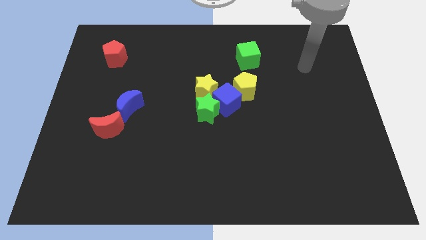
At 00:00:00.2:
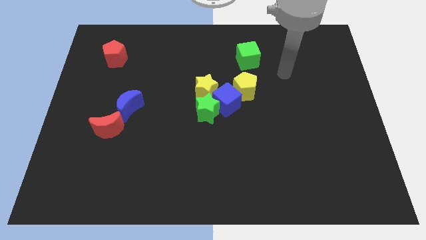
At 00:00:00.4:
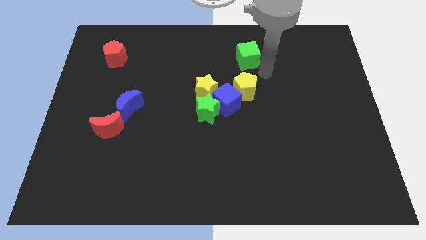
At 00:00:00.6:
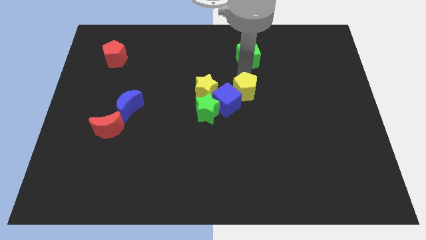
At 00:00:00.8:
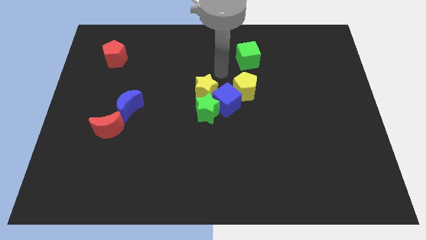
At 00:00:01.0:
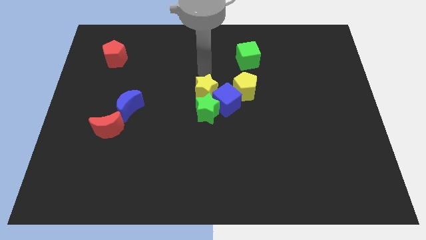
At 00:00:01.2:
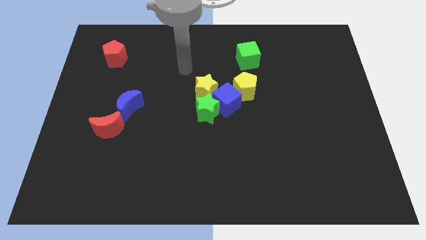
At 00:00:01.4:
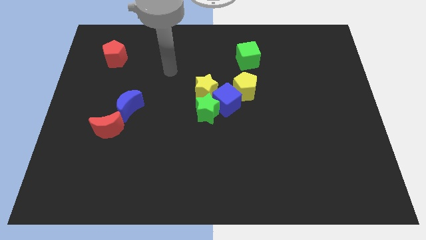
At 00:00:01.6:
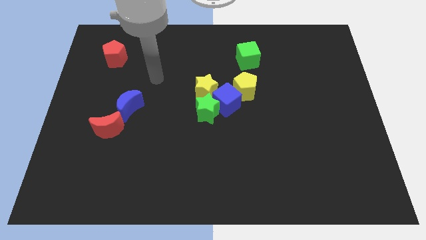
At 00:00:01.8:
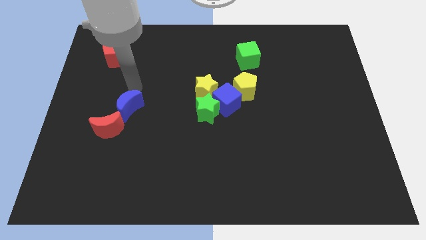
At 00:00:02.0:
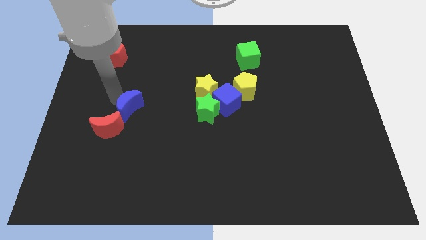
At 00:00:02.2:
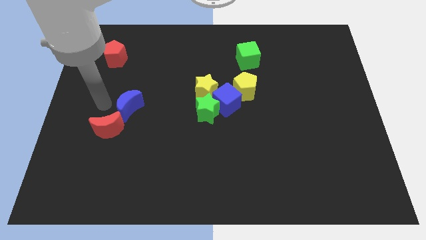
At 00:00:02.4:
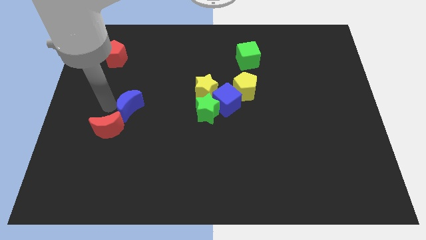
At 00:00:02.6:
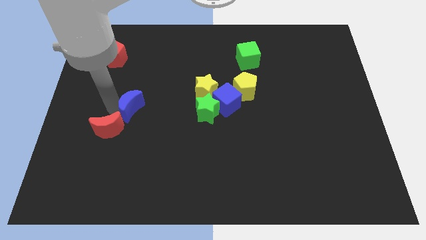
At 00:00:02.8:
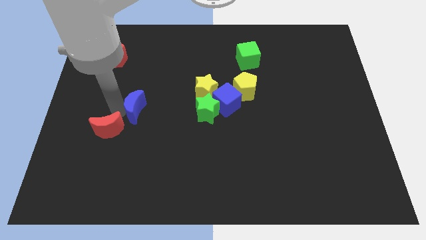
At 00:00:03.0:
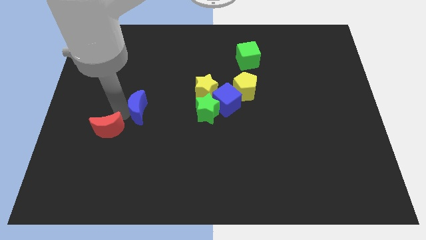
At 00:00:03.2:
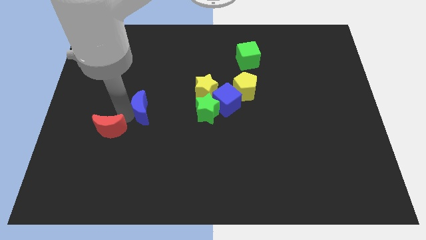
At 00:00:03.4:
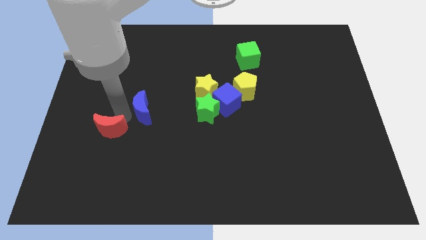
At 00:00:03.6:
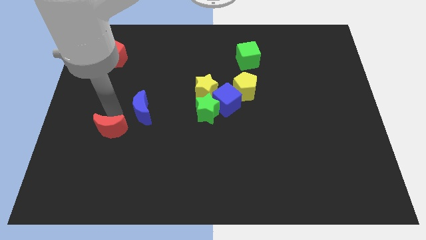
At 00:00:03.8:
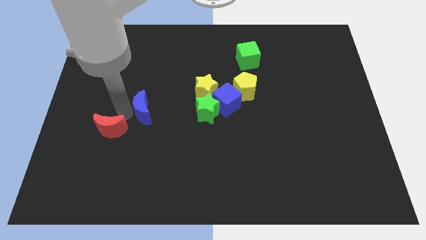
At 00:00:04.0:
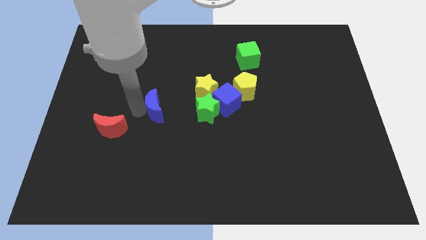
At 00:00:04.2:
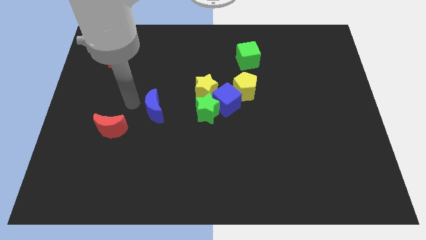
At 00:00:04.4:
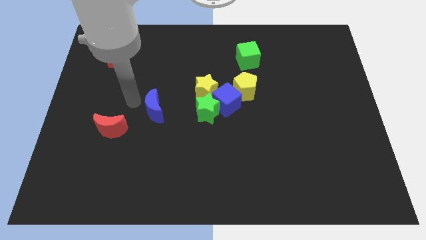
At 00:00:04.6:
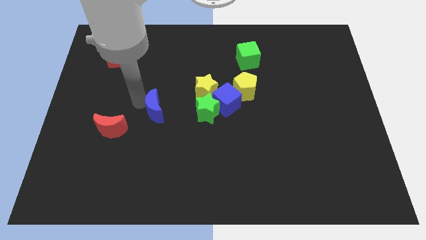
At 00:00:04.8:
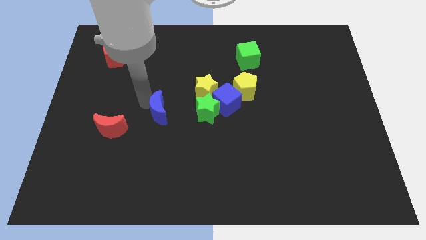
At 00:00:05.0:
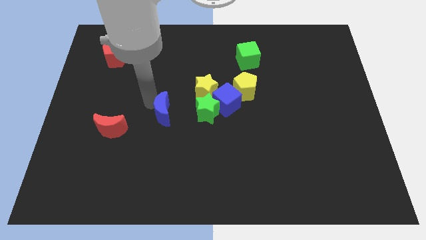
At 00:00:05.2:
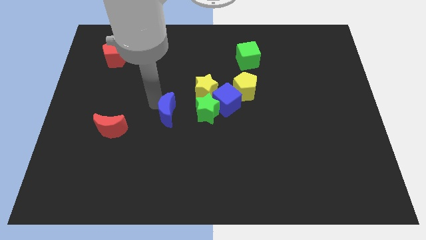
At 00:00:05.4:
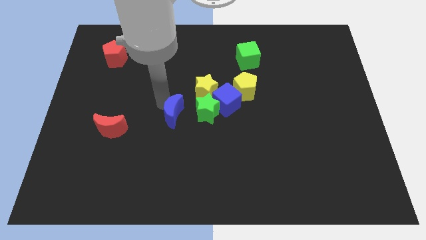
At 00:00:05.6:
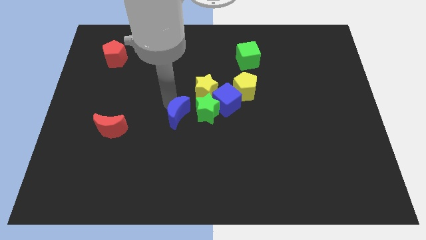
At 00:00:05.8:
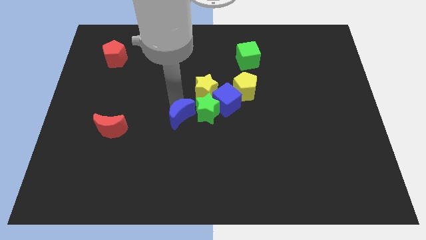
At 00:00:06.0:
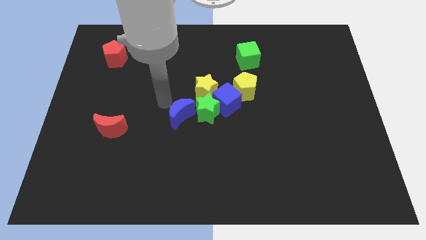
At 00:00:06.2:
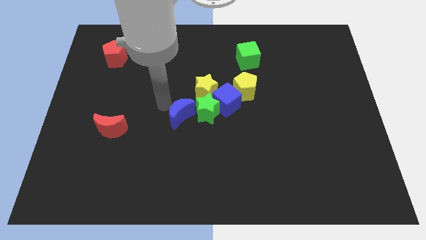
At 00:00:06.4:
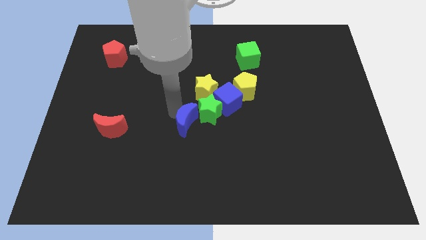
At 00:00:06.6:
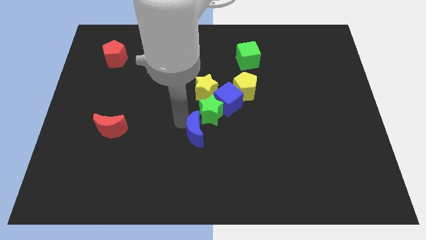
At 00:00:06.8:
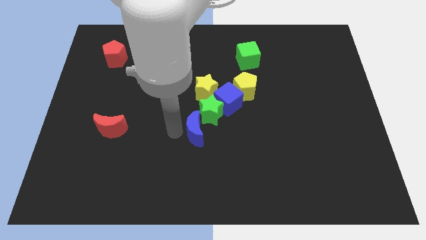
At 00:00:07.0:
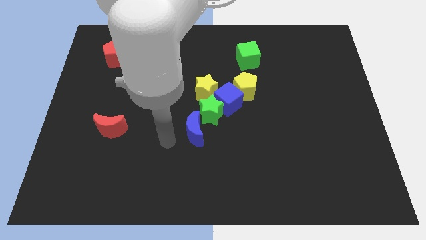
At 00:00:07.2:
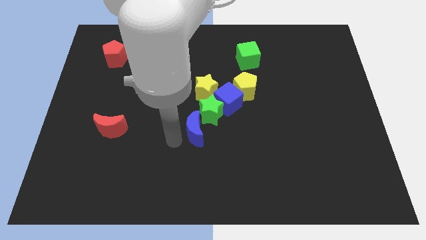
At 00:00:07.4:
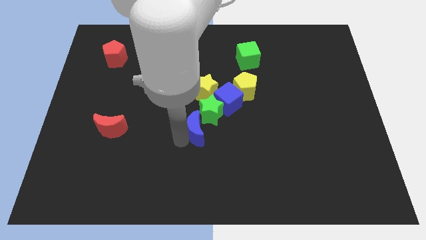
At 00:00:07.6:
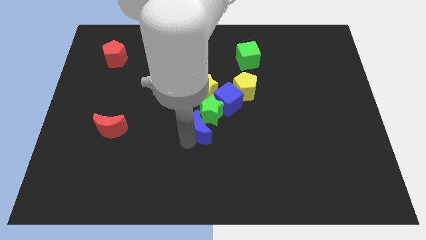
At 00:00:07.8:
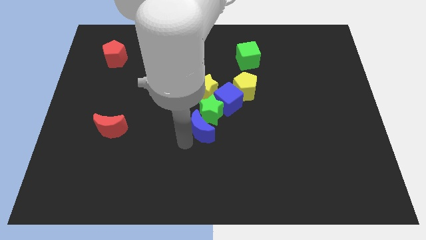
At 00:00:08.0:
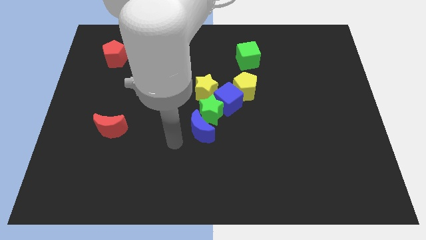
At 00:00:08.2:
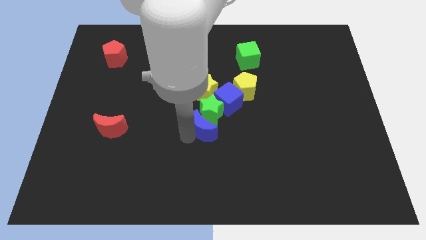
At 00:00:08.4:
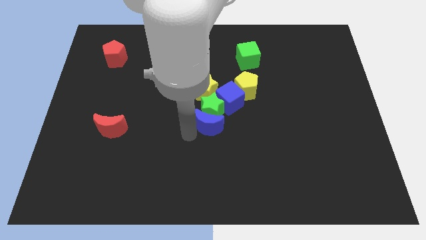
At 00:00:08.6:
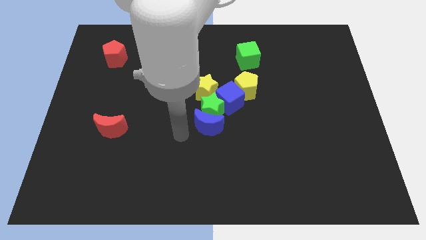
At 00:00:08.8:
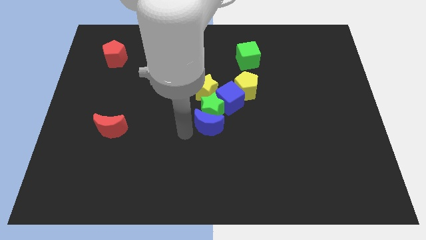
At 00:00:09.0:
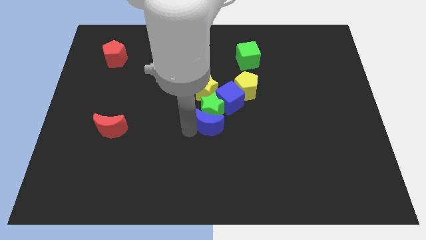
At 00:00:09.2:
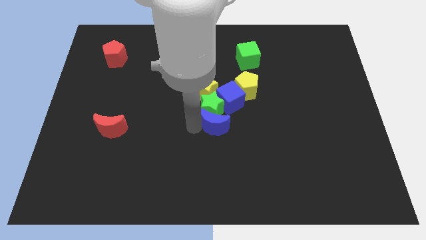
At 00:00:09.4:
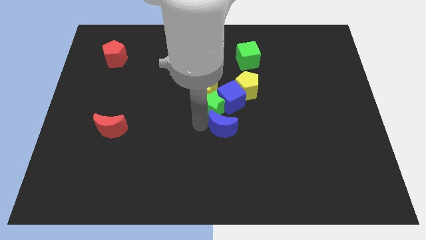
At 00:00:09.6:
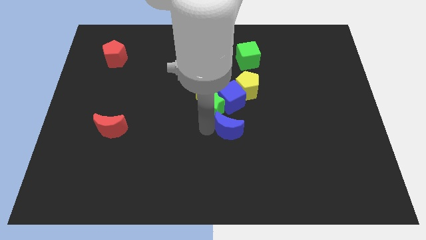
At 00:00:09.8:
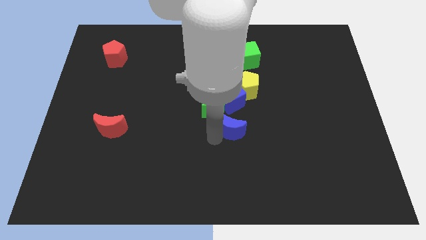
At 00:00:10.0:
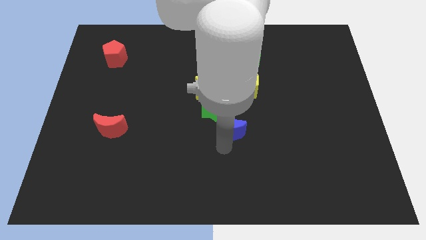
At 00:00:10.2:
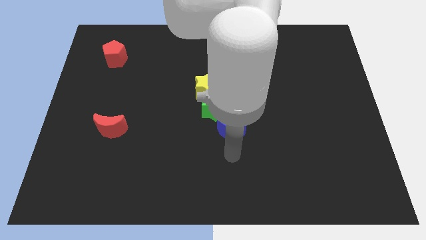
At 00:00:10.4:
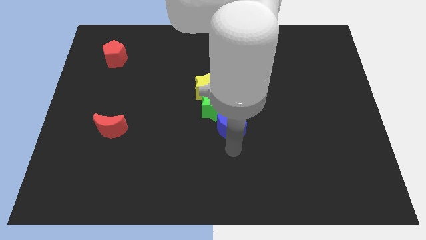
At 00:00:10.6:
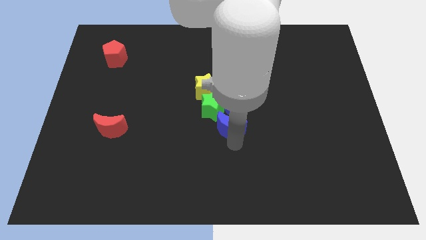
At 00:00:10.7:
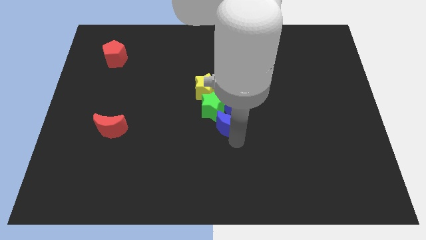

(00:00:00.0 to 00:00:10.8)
push the blue moon to the bottom right side of the yellow star

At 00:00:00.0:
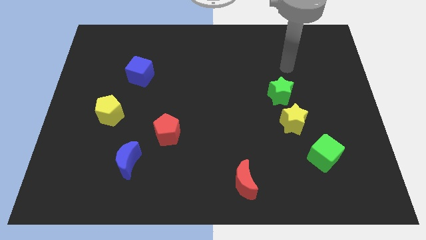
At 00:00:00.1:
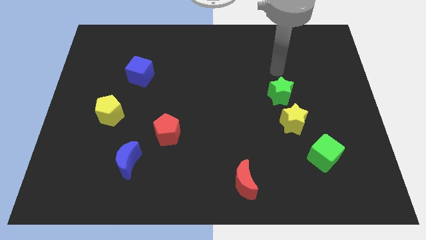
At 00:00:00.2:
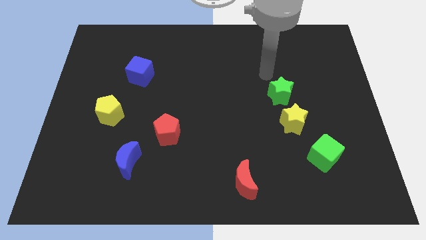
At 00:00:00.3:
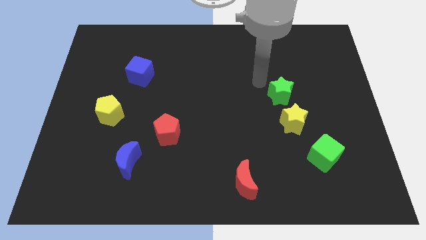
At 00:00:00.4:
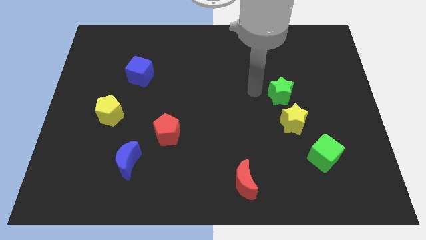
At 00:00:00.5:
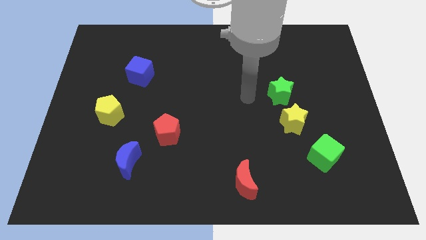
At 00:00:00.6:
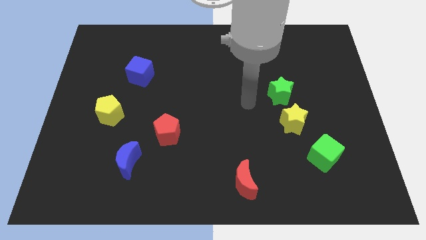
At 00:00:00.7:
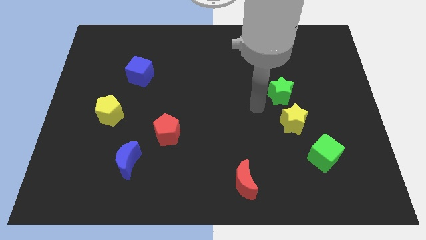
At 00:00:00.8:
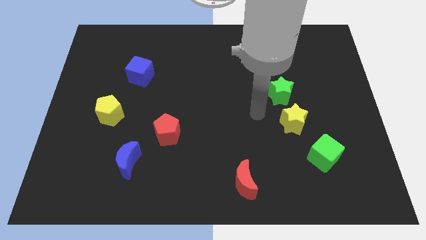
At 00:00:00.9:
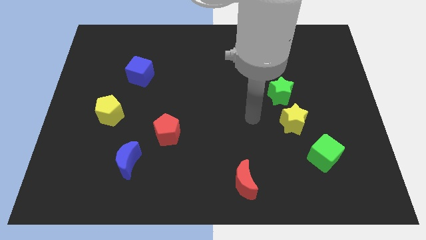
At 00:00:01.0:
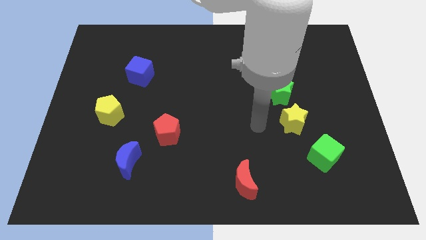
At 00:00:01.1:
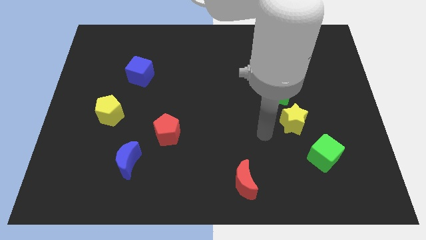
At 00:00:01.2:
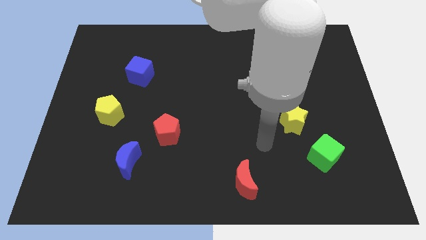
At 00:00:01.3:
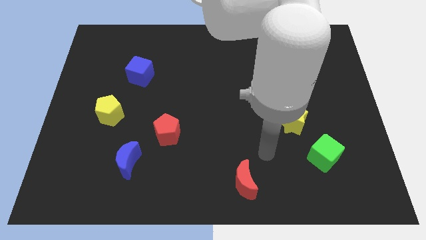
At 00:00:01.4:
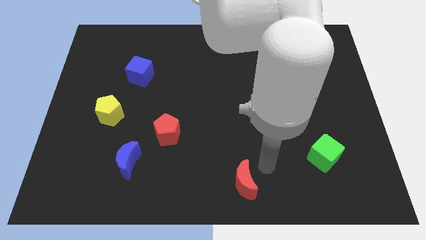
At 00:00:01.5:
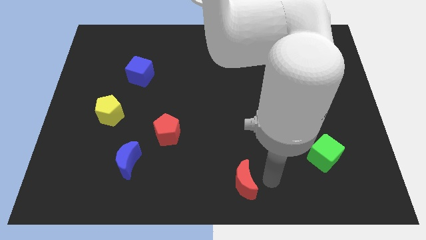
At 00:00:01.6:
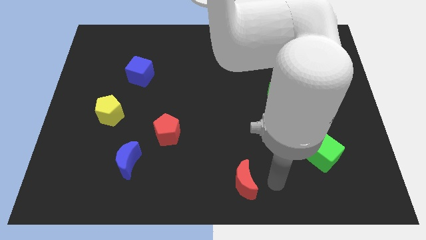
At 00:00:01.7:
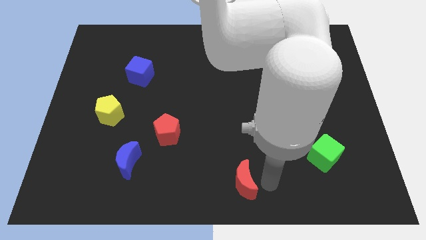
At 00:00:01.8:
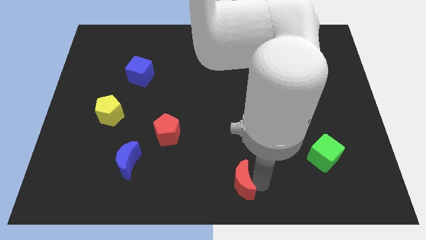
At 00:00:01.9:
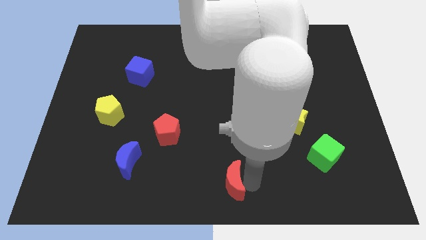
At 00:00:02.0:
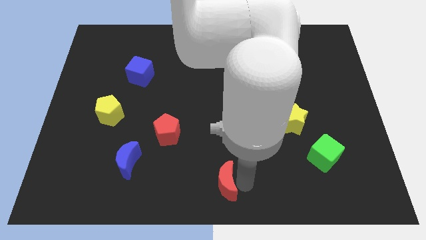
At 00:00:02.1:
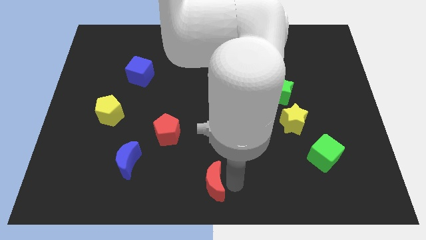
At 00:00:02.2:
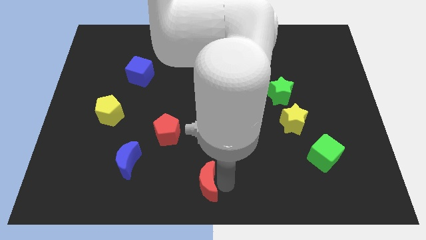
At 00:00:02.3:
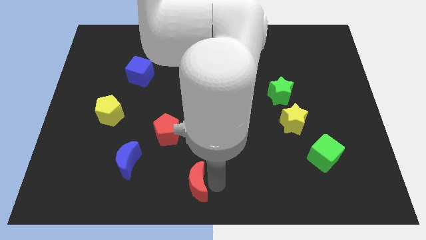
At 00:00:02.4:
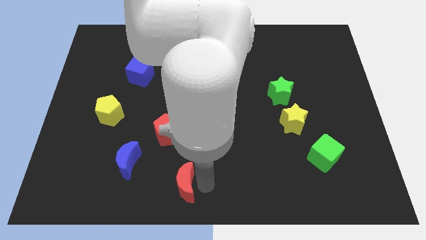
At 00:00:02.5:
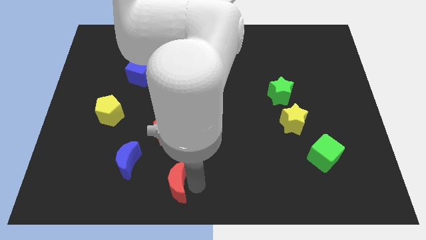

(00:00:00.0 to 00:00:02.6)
put the red moon diagonally down and to the right of the blue moon
